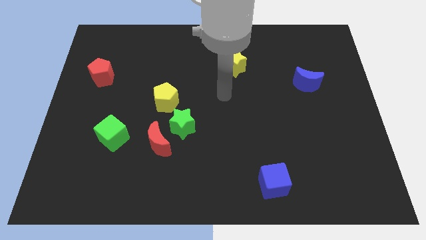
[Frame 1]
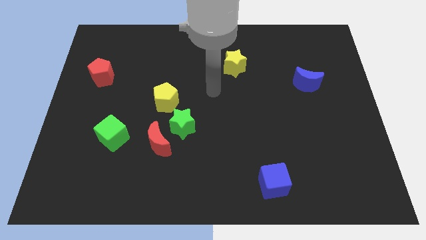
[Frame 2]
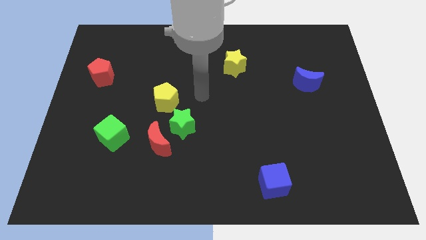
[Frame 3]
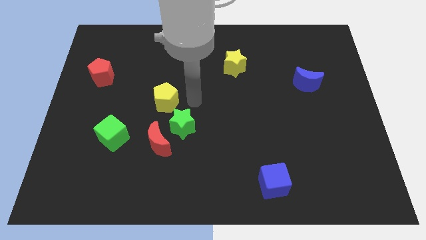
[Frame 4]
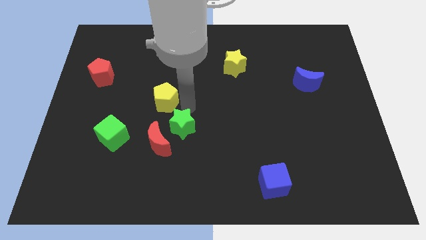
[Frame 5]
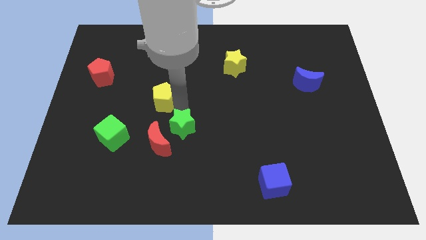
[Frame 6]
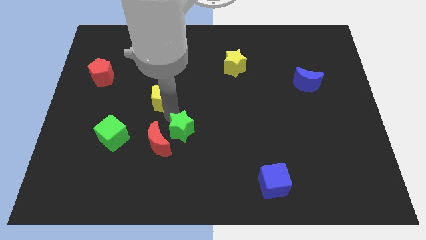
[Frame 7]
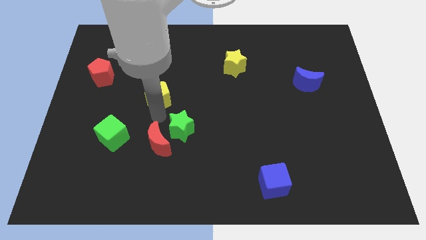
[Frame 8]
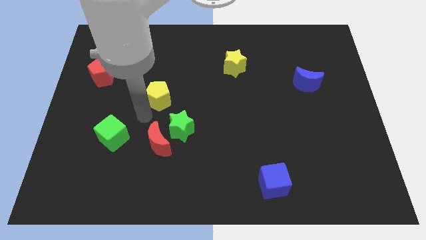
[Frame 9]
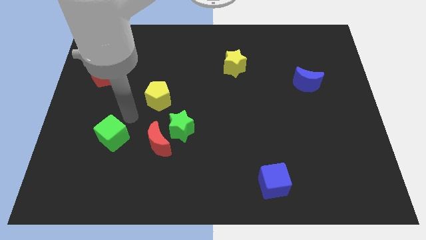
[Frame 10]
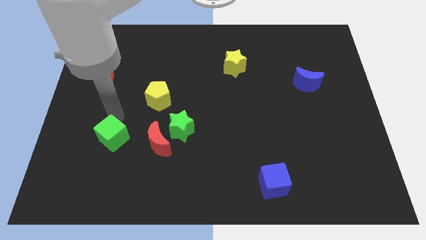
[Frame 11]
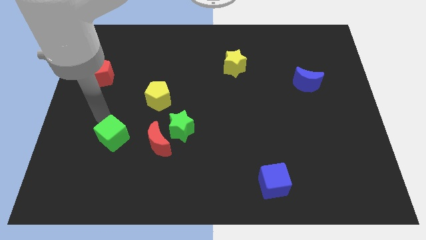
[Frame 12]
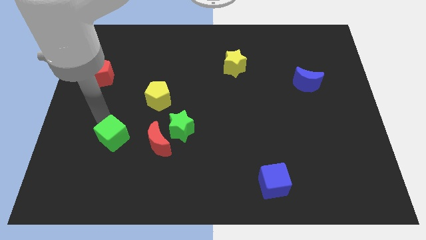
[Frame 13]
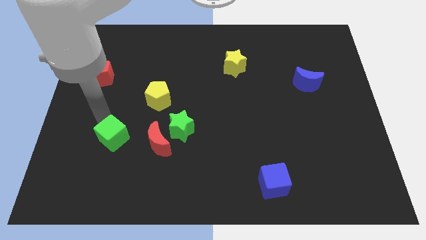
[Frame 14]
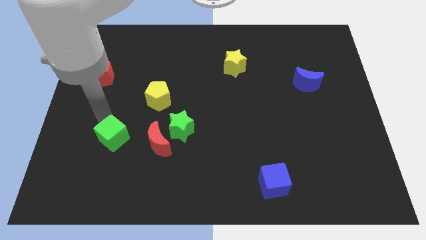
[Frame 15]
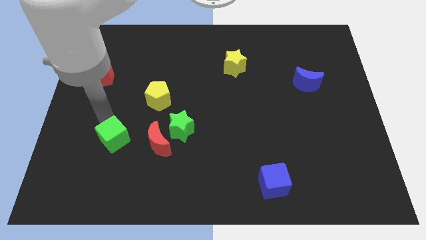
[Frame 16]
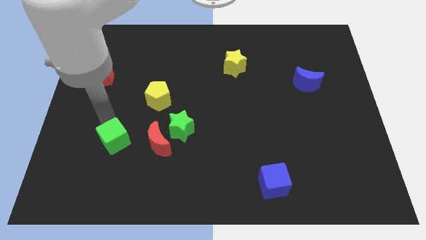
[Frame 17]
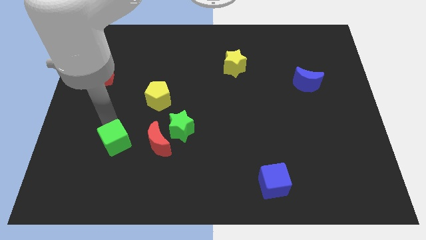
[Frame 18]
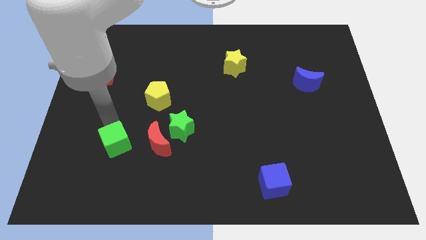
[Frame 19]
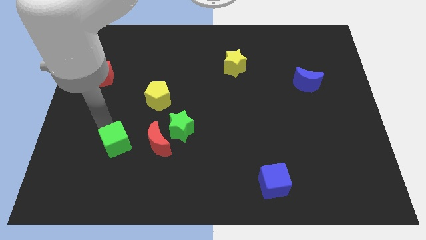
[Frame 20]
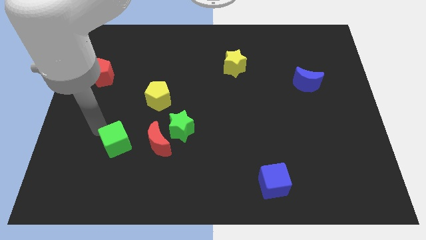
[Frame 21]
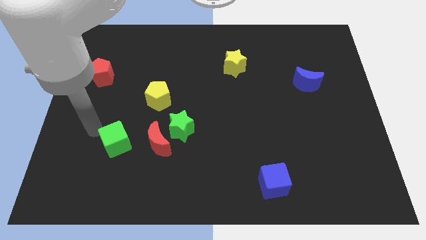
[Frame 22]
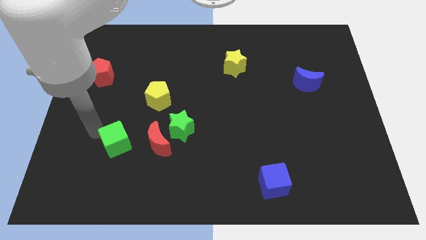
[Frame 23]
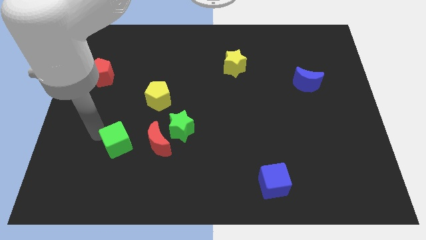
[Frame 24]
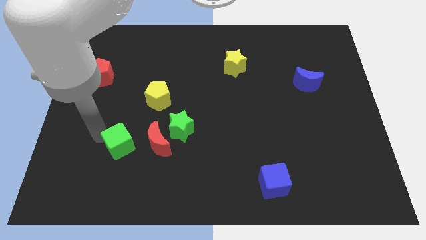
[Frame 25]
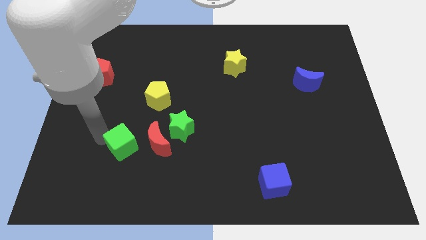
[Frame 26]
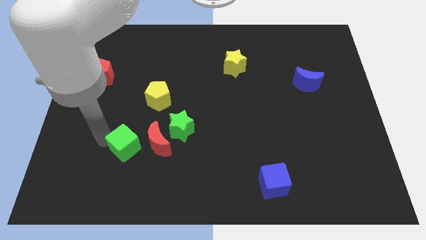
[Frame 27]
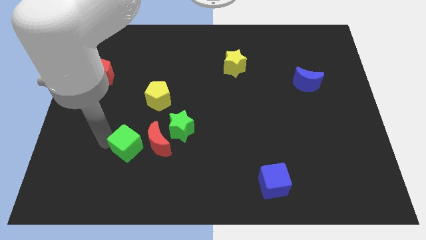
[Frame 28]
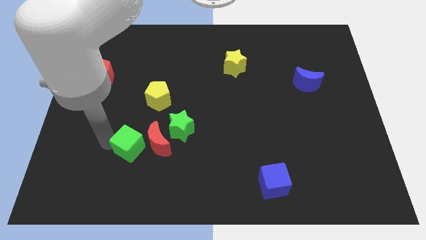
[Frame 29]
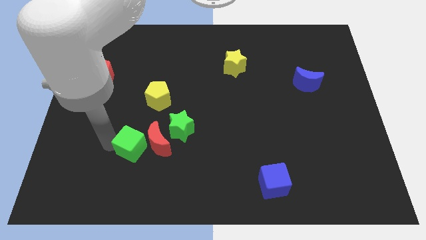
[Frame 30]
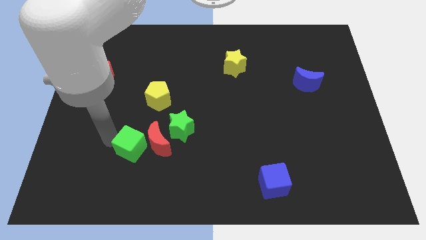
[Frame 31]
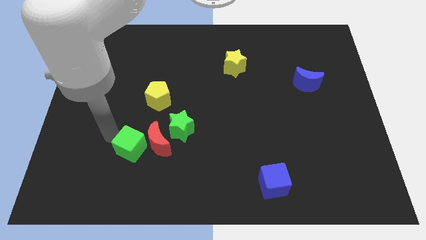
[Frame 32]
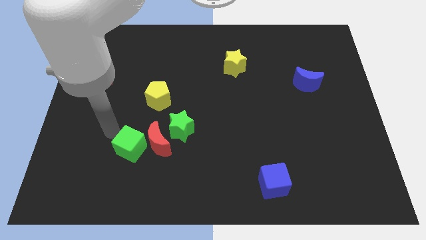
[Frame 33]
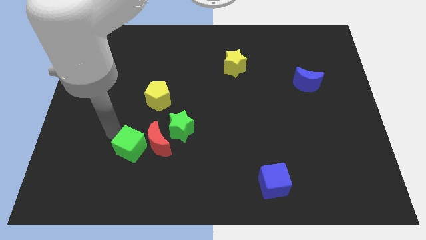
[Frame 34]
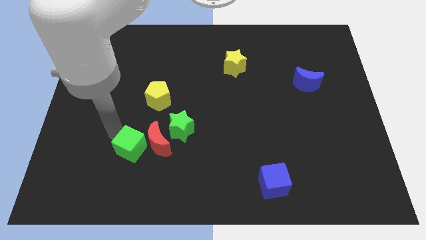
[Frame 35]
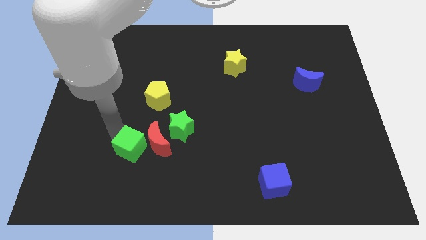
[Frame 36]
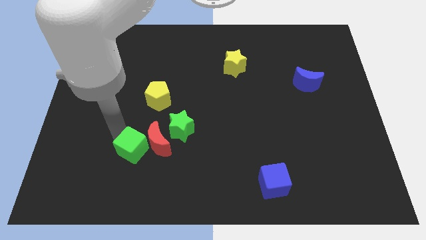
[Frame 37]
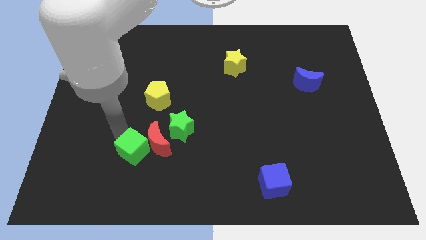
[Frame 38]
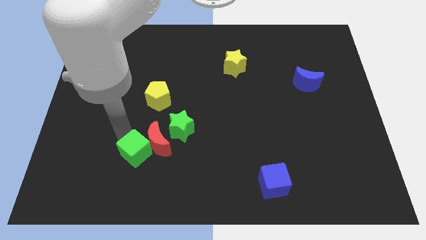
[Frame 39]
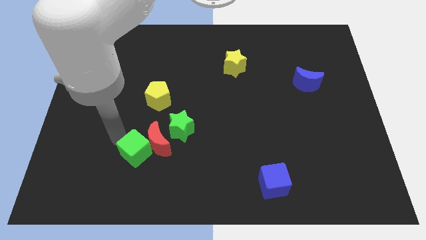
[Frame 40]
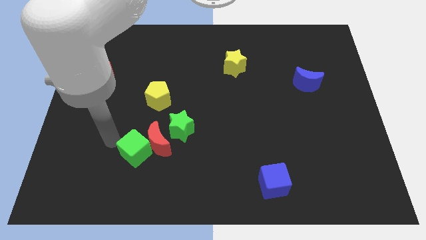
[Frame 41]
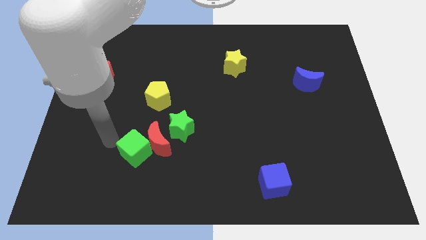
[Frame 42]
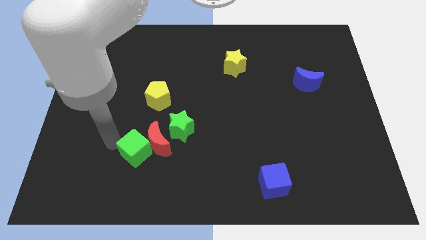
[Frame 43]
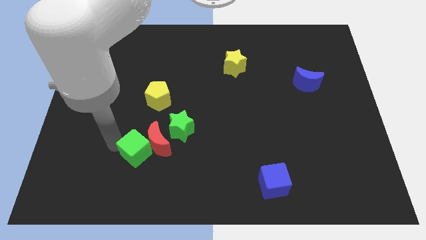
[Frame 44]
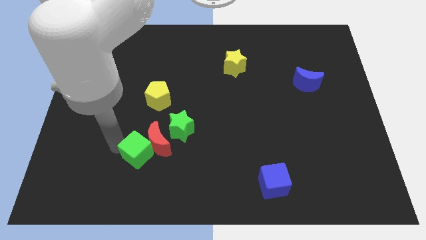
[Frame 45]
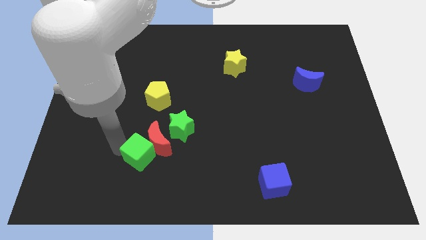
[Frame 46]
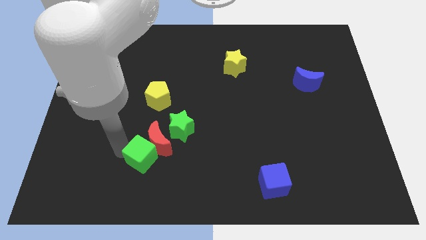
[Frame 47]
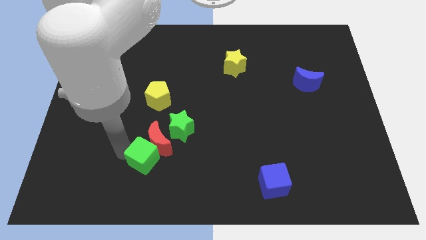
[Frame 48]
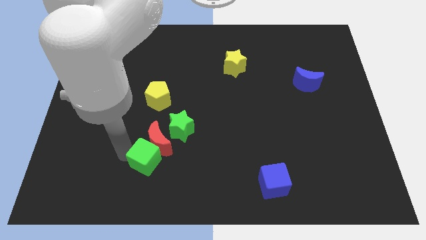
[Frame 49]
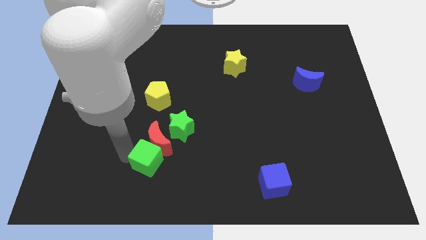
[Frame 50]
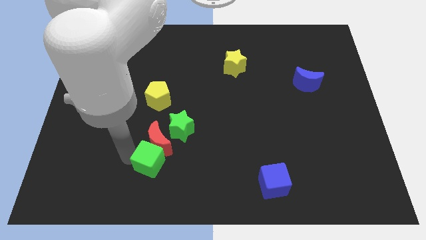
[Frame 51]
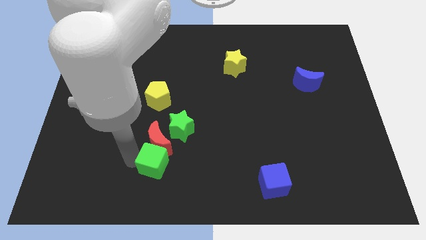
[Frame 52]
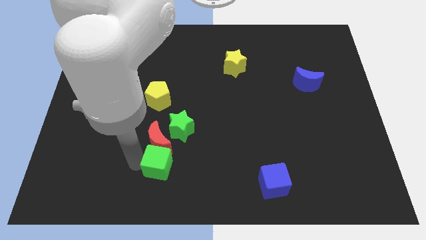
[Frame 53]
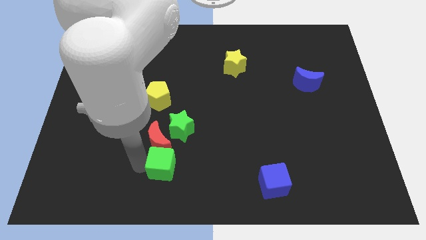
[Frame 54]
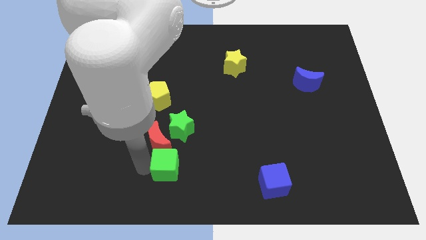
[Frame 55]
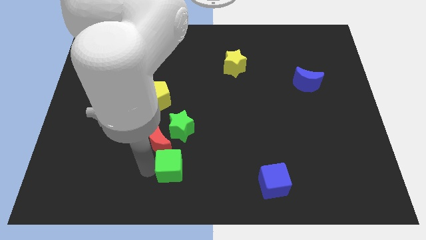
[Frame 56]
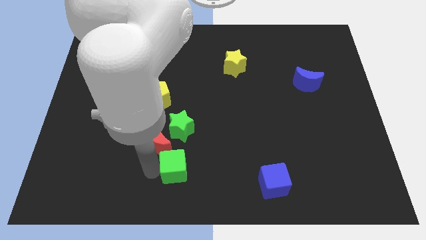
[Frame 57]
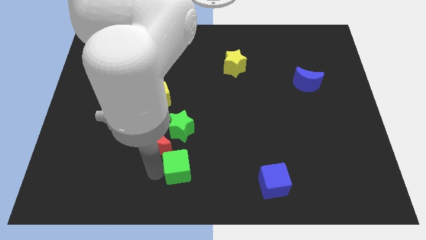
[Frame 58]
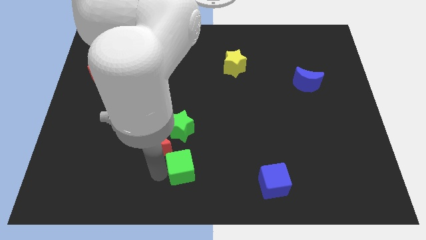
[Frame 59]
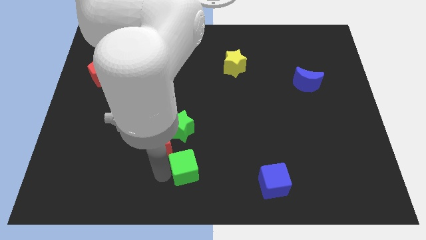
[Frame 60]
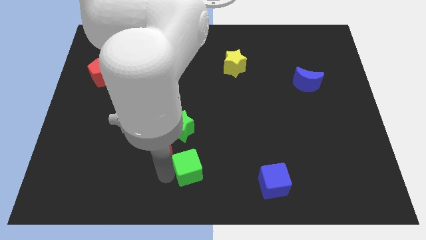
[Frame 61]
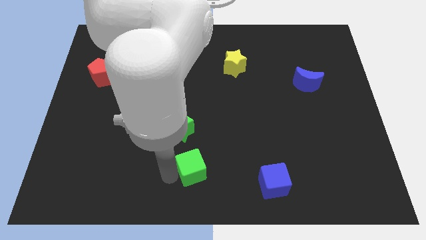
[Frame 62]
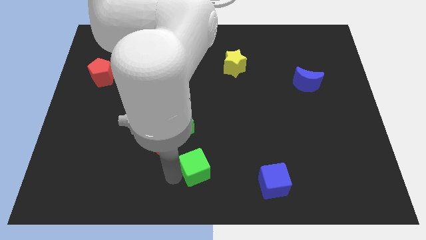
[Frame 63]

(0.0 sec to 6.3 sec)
slide the green cube to the bottom right of the green star
